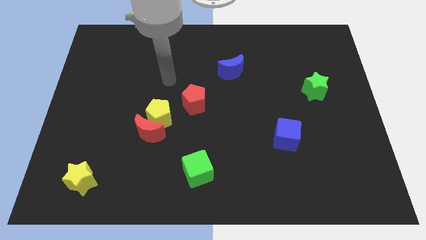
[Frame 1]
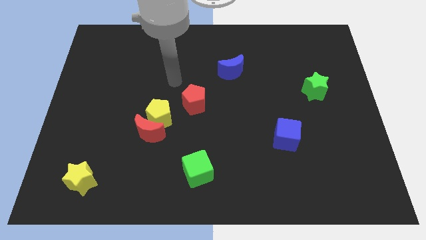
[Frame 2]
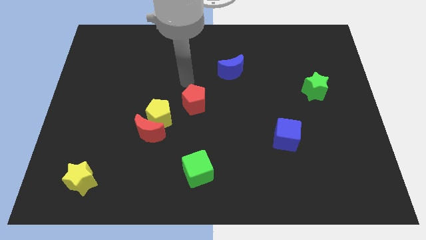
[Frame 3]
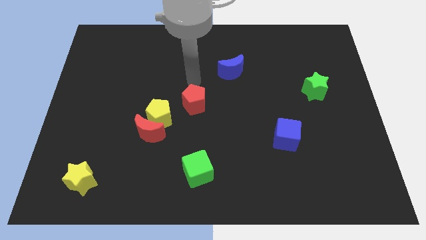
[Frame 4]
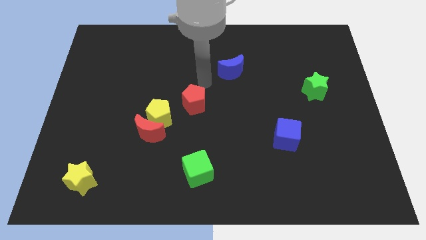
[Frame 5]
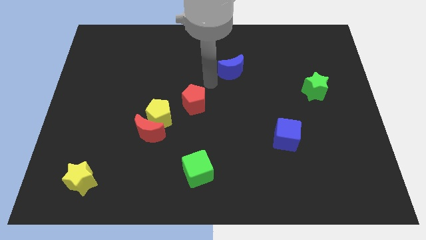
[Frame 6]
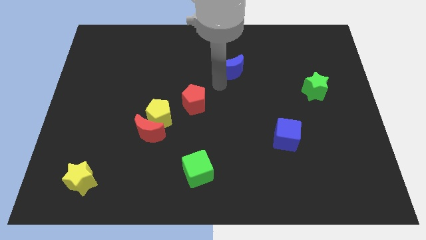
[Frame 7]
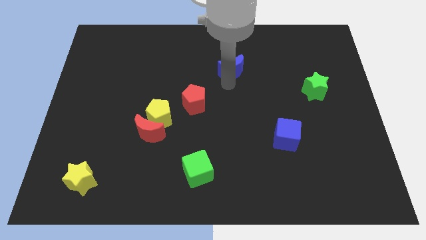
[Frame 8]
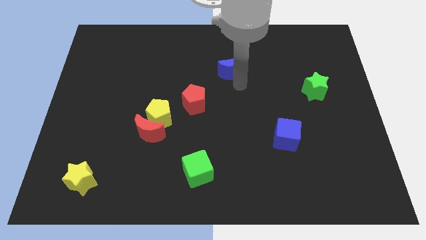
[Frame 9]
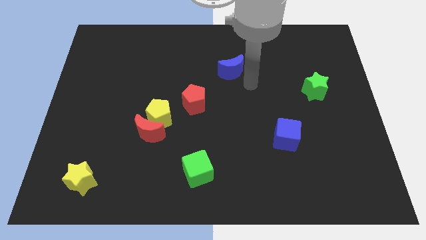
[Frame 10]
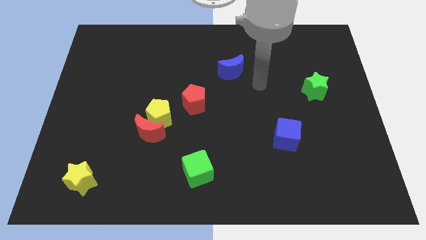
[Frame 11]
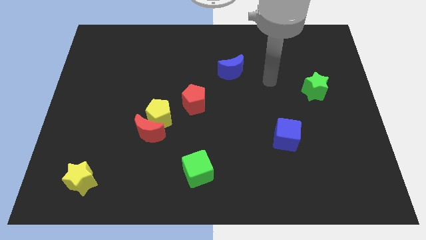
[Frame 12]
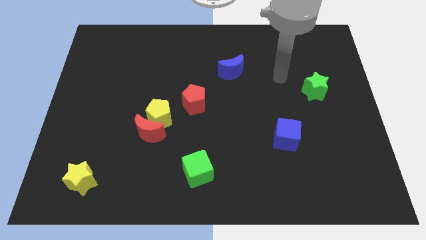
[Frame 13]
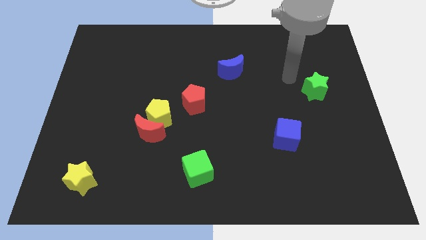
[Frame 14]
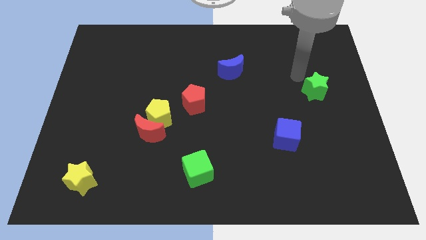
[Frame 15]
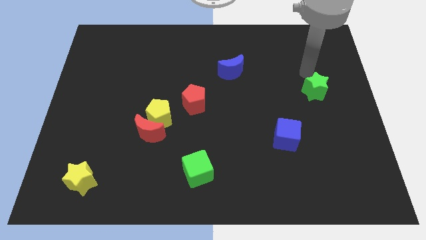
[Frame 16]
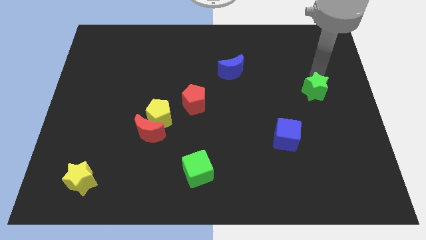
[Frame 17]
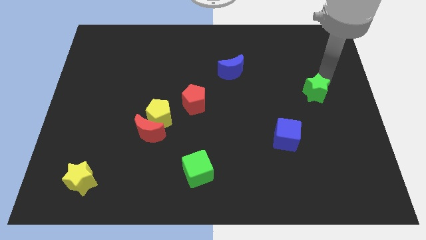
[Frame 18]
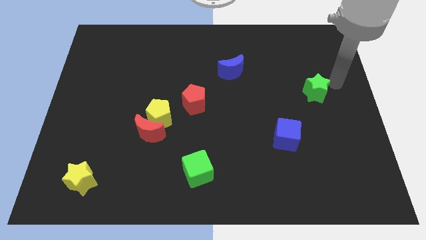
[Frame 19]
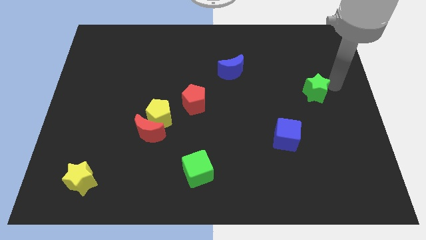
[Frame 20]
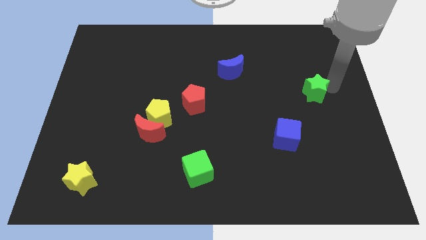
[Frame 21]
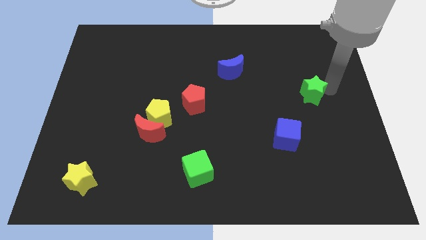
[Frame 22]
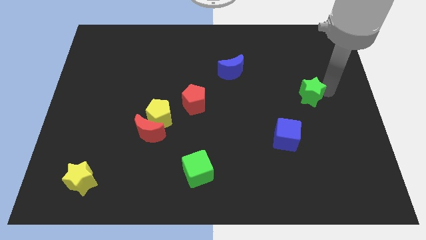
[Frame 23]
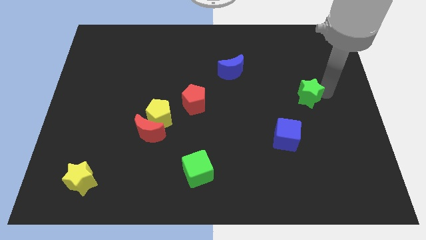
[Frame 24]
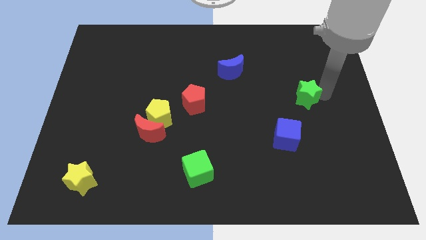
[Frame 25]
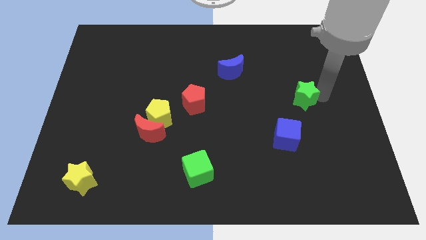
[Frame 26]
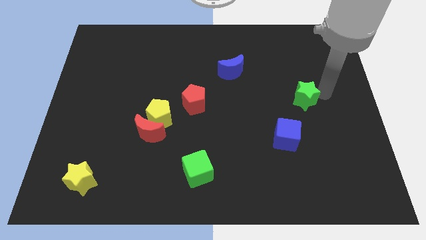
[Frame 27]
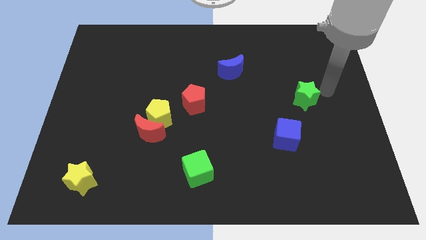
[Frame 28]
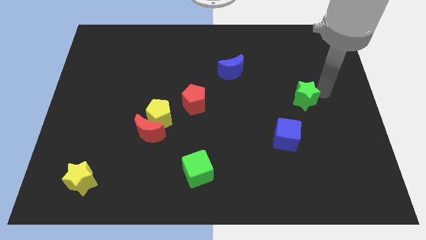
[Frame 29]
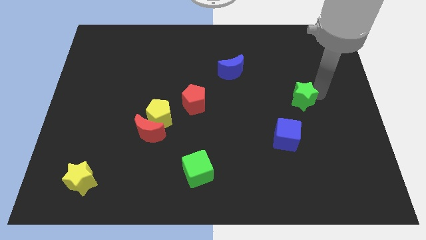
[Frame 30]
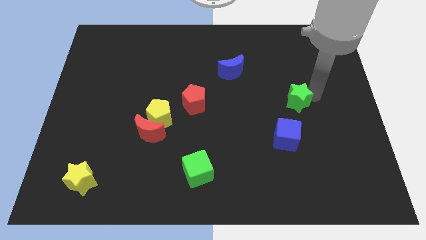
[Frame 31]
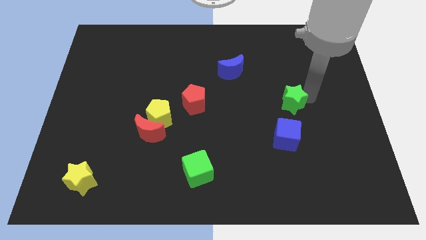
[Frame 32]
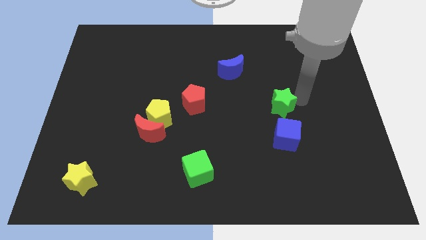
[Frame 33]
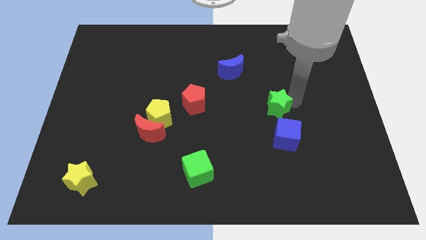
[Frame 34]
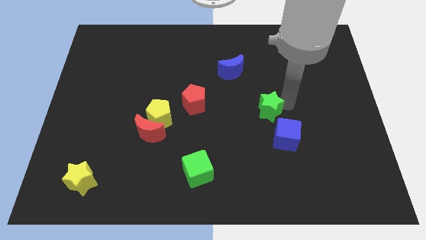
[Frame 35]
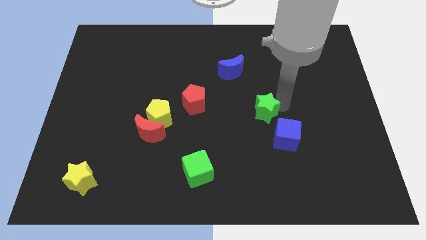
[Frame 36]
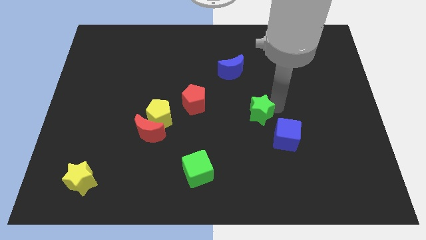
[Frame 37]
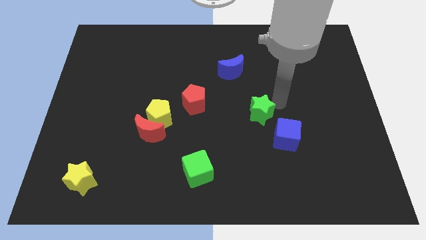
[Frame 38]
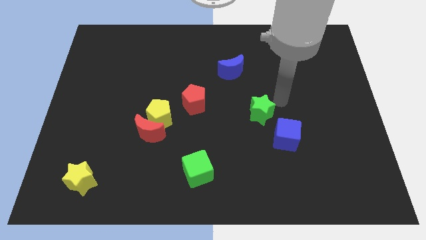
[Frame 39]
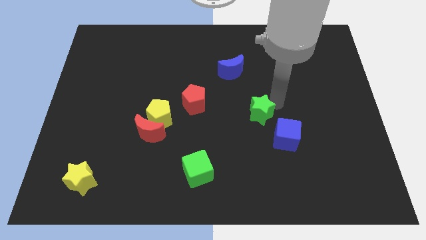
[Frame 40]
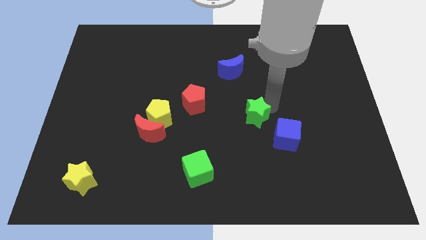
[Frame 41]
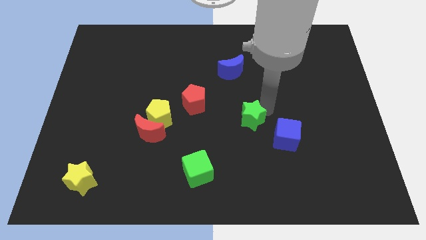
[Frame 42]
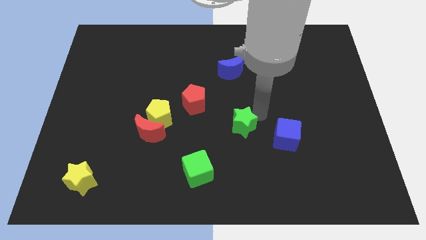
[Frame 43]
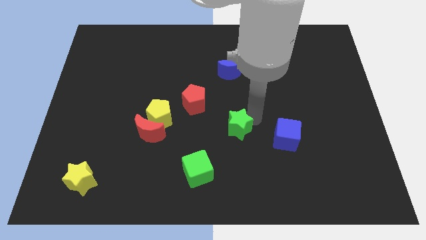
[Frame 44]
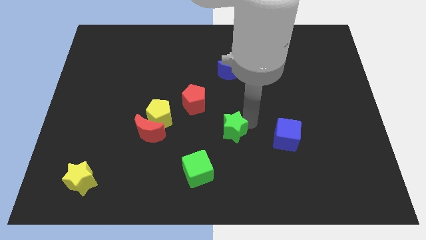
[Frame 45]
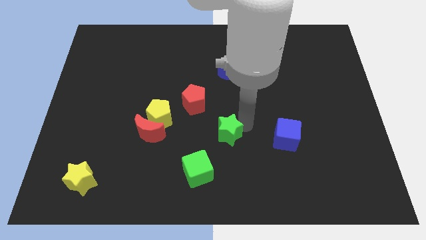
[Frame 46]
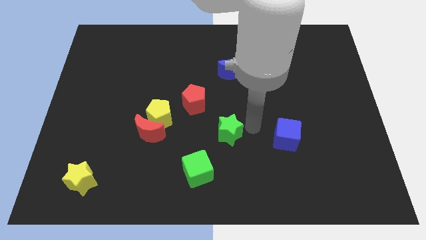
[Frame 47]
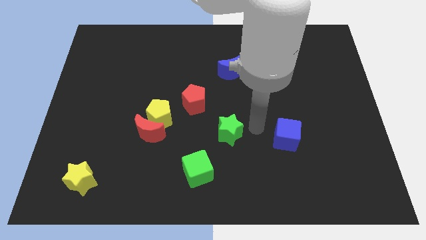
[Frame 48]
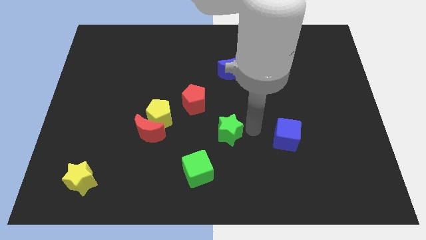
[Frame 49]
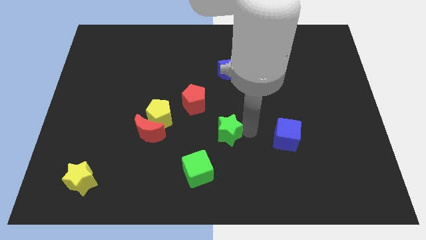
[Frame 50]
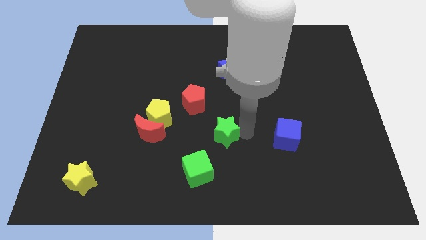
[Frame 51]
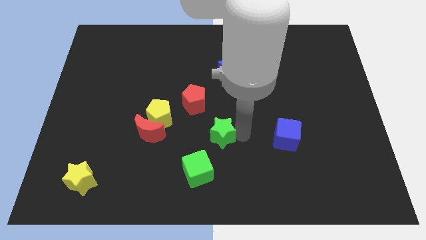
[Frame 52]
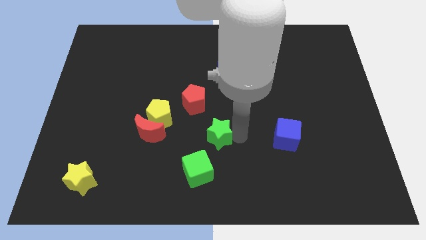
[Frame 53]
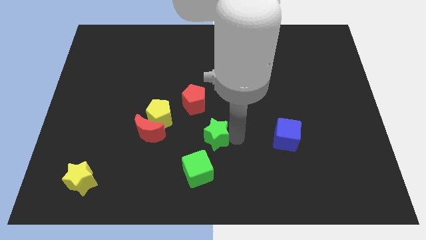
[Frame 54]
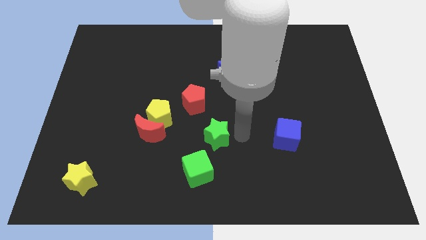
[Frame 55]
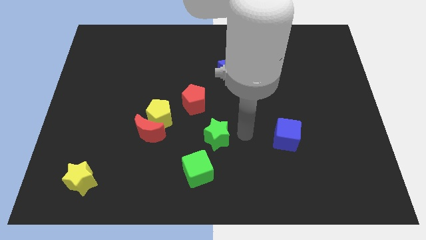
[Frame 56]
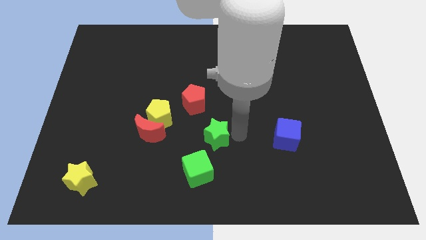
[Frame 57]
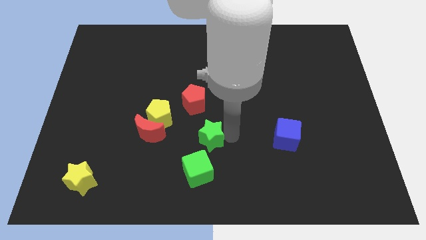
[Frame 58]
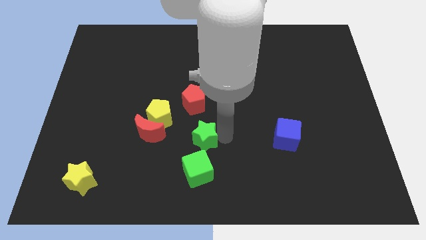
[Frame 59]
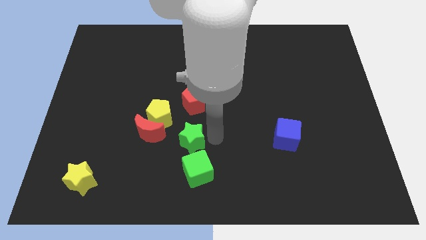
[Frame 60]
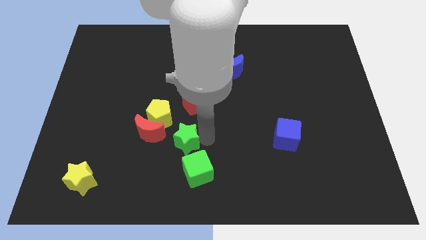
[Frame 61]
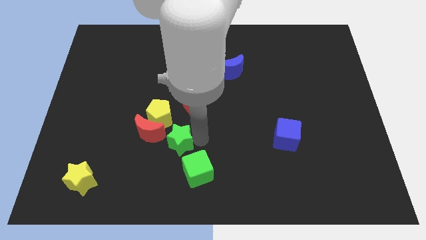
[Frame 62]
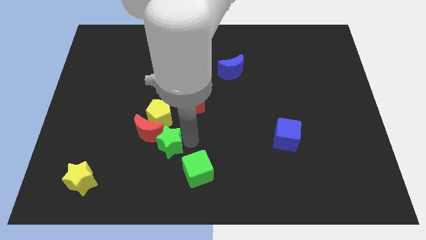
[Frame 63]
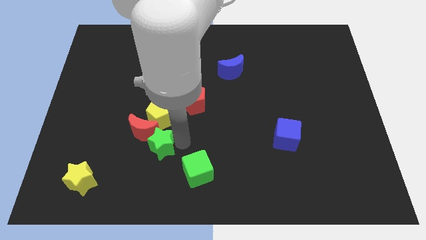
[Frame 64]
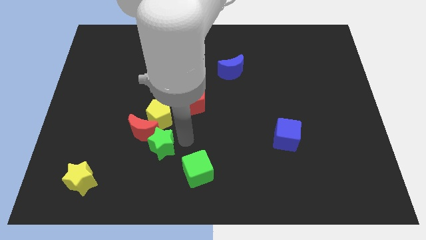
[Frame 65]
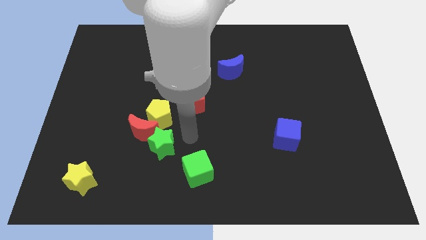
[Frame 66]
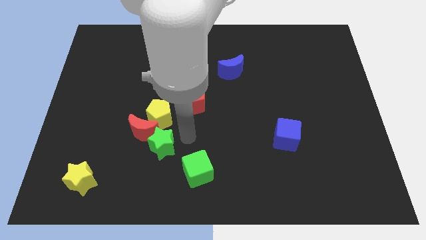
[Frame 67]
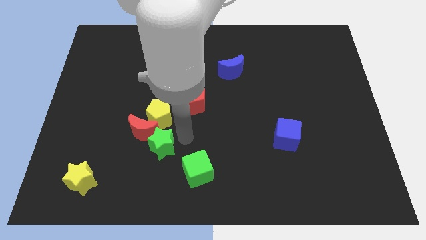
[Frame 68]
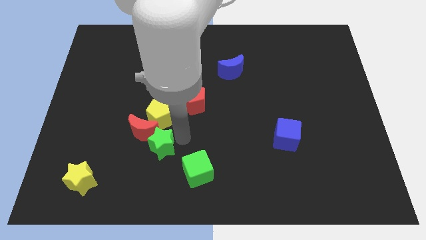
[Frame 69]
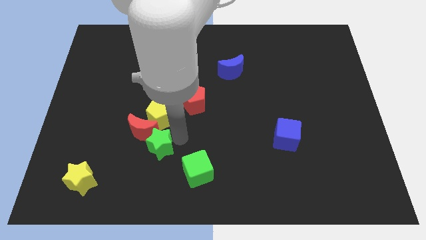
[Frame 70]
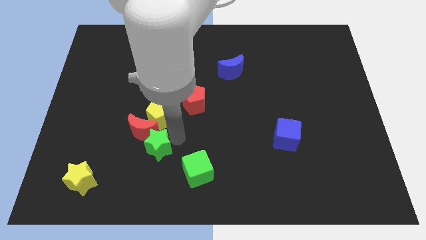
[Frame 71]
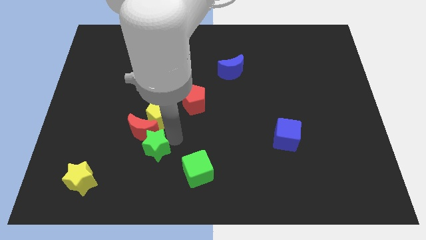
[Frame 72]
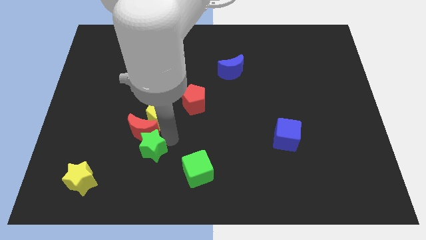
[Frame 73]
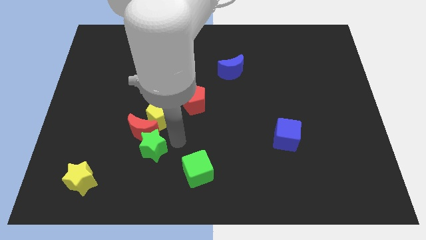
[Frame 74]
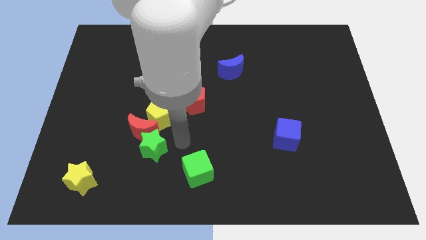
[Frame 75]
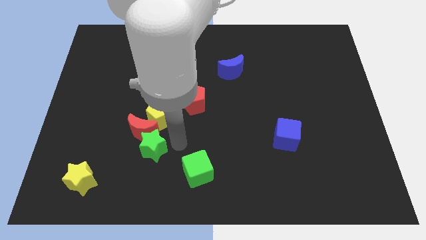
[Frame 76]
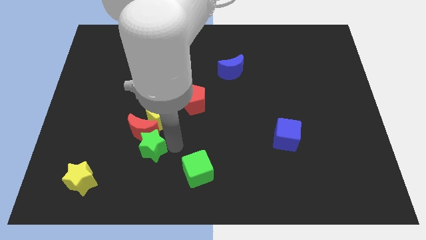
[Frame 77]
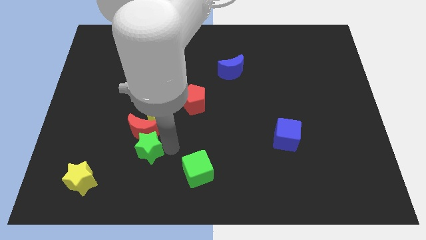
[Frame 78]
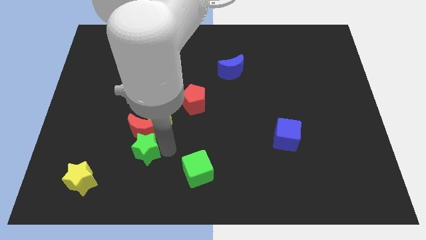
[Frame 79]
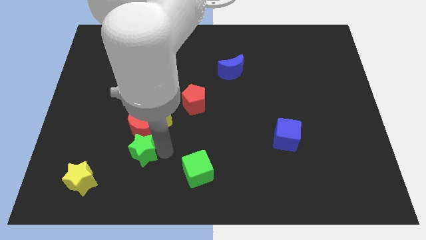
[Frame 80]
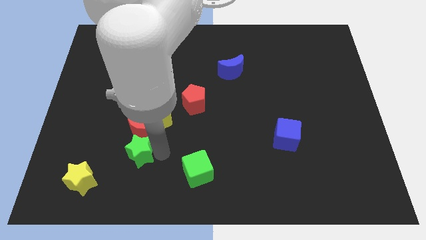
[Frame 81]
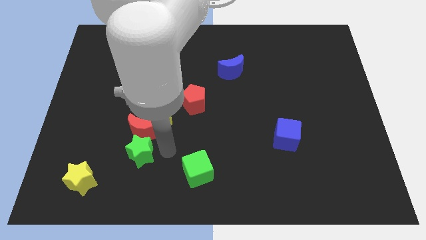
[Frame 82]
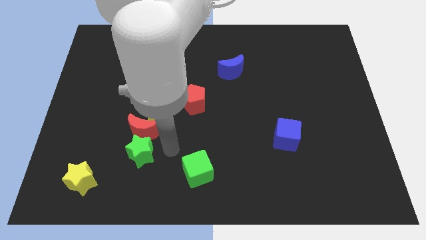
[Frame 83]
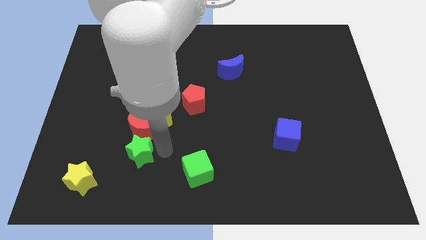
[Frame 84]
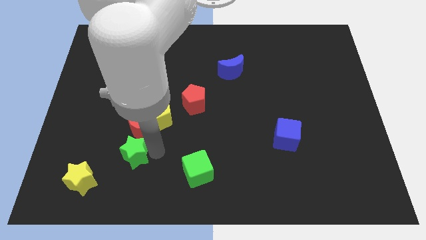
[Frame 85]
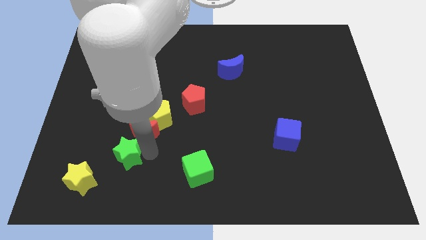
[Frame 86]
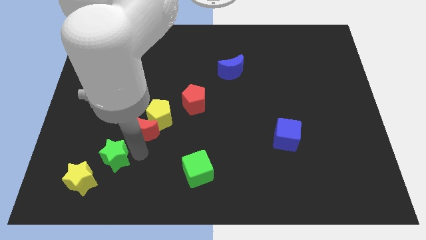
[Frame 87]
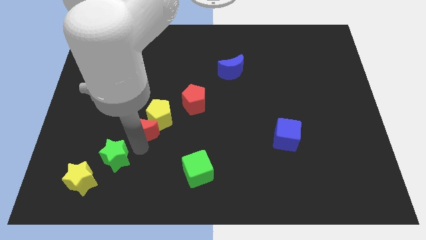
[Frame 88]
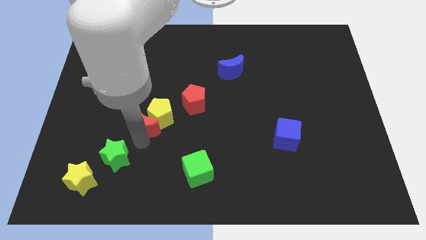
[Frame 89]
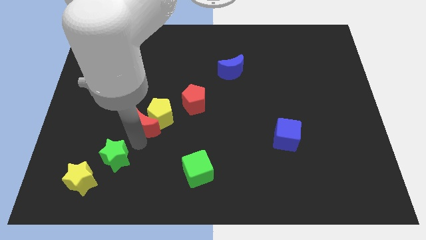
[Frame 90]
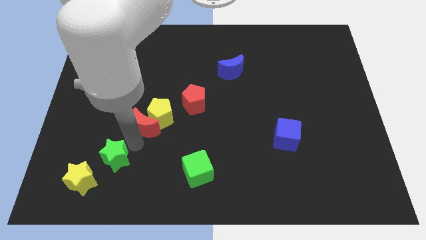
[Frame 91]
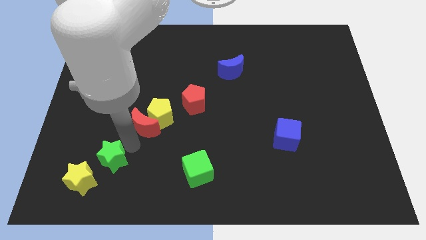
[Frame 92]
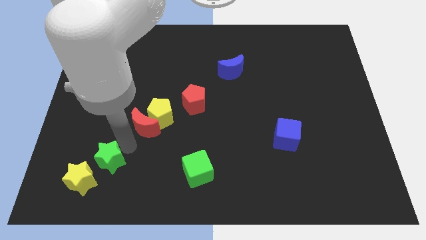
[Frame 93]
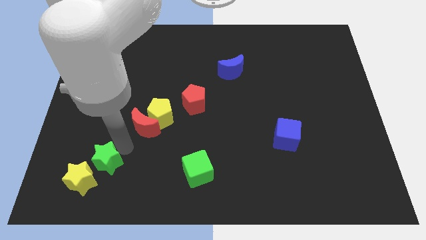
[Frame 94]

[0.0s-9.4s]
move the green star to the yellow star
